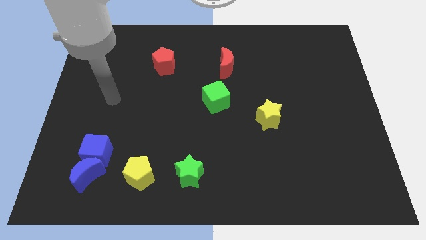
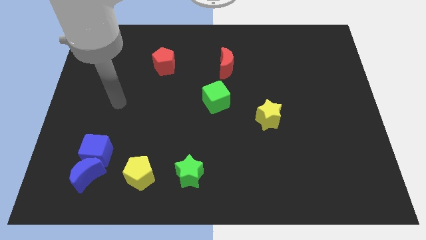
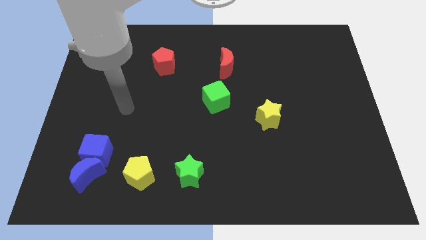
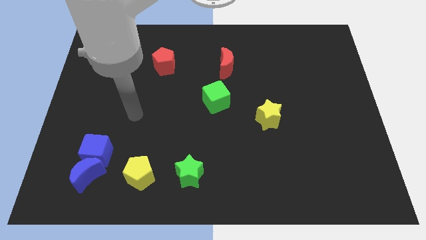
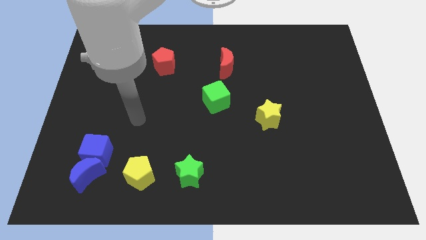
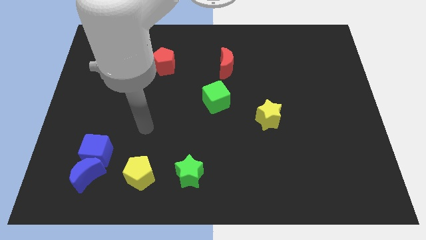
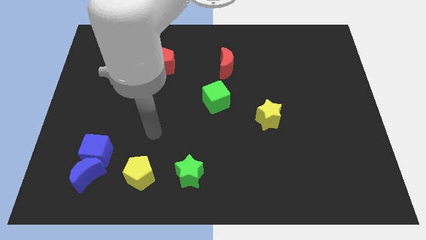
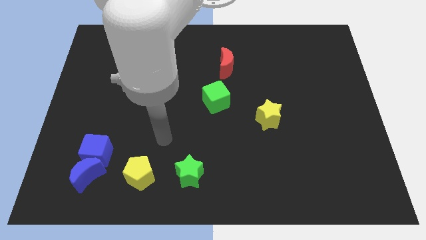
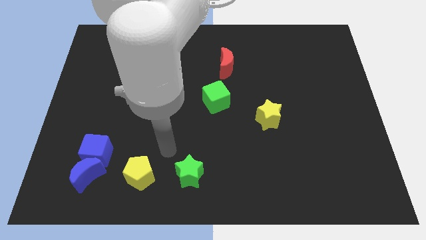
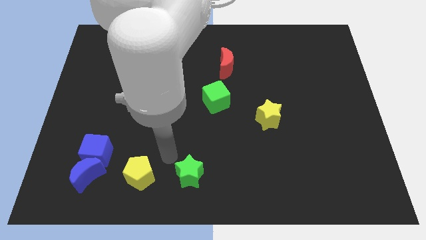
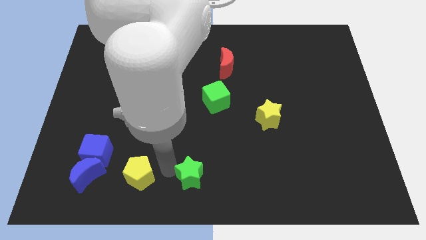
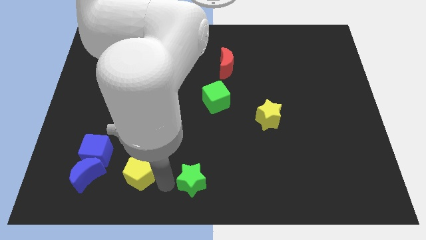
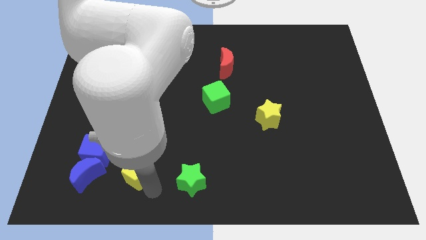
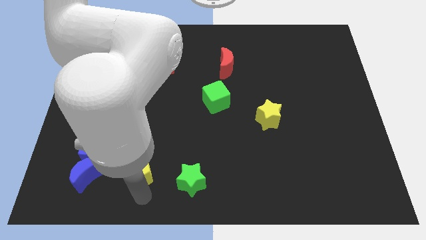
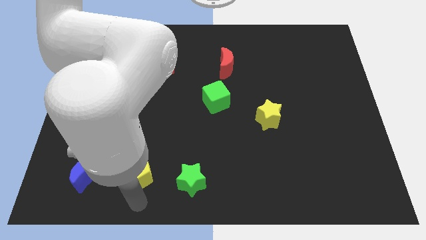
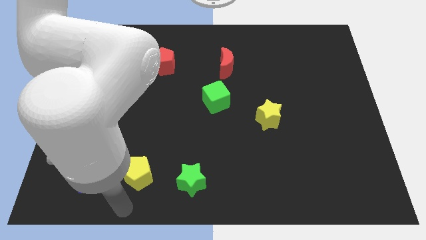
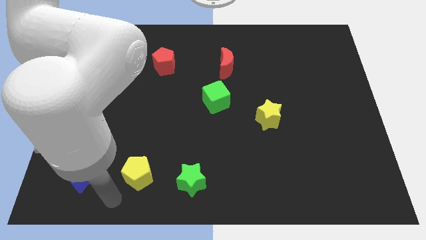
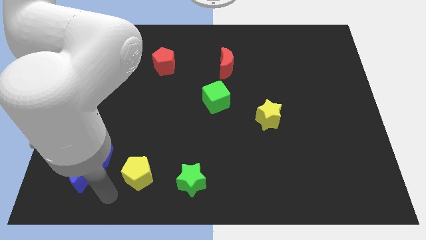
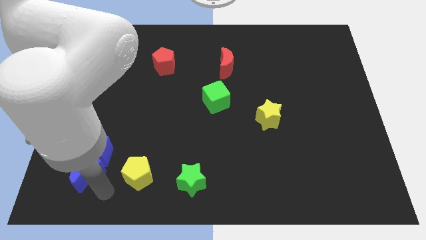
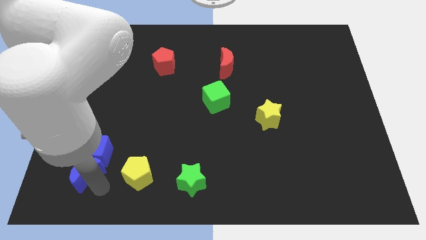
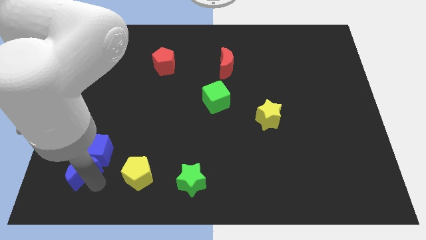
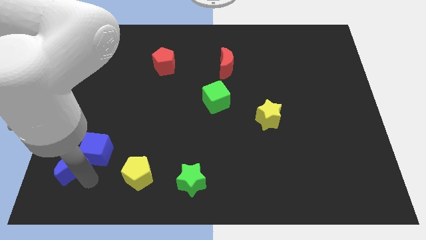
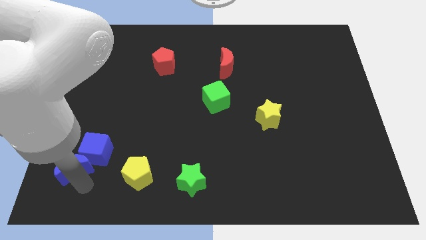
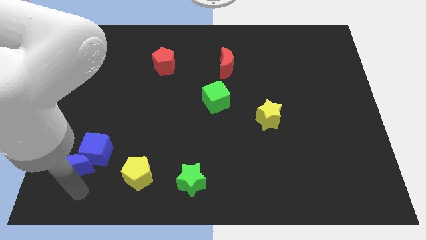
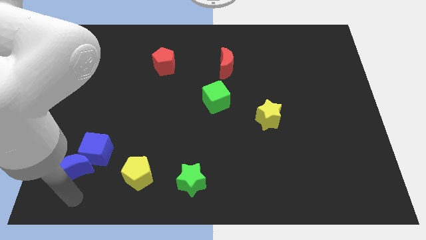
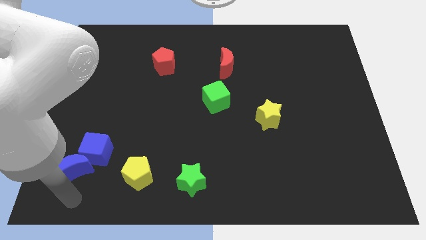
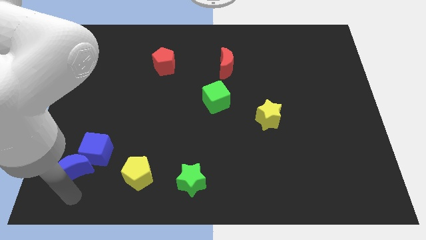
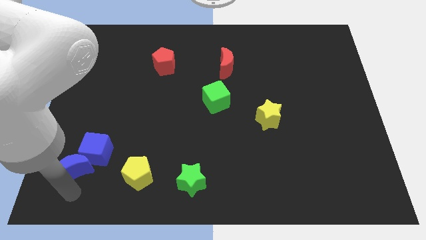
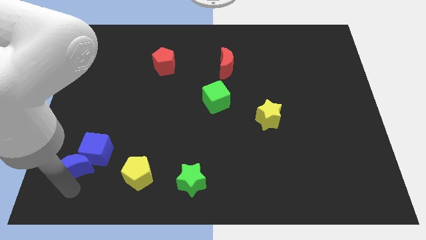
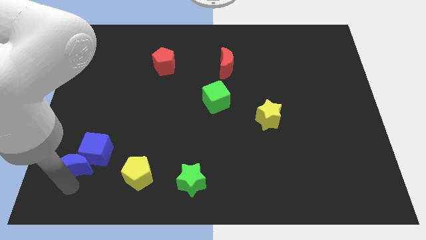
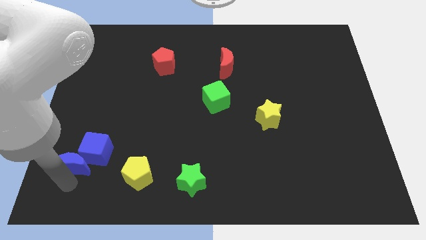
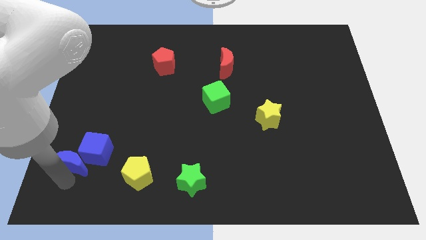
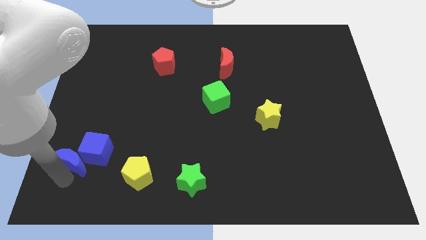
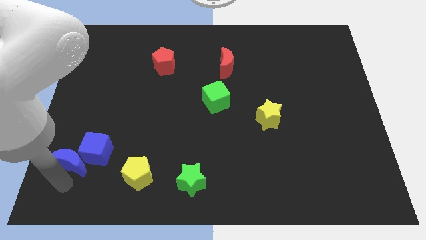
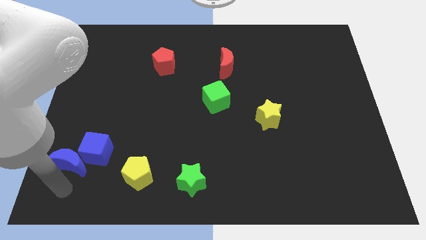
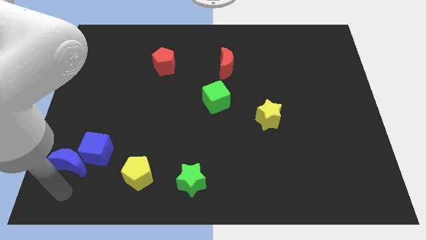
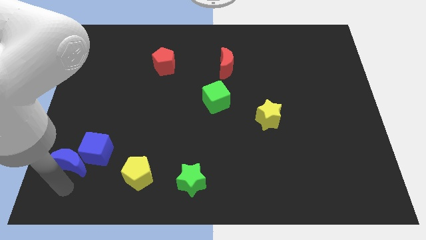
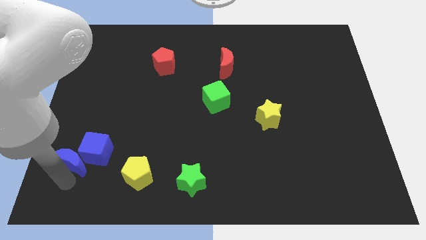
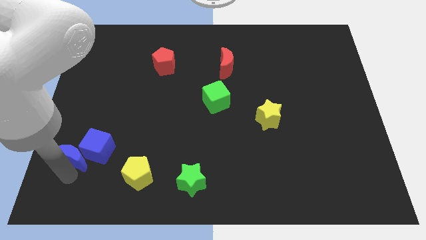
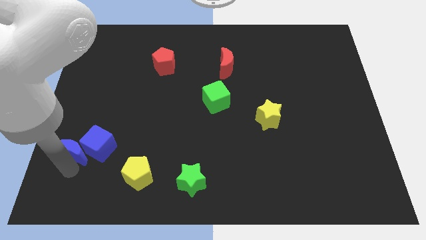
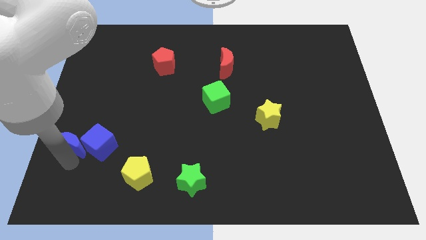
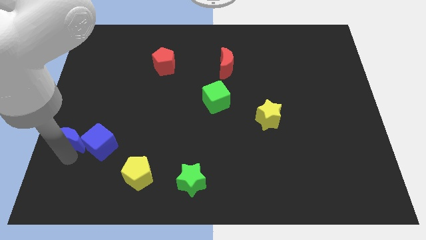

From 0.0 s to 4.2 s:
push the blue moon somewhat up

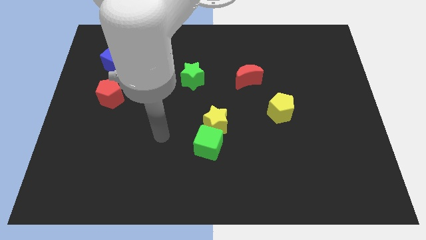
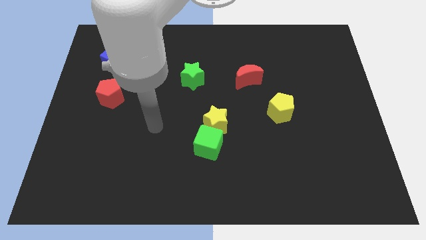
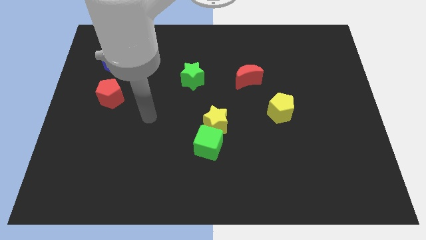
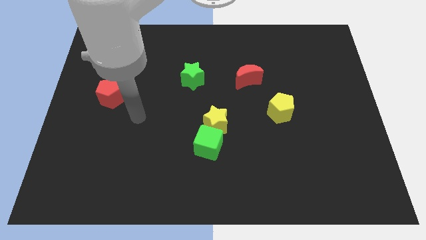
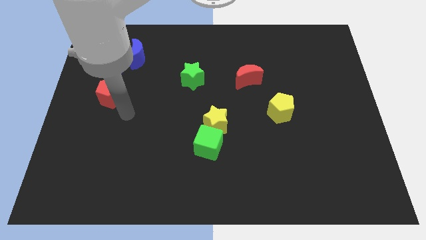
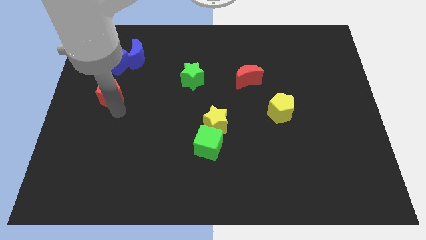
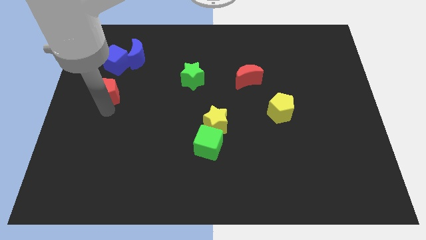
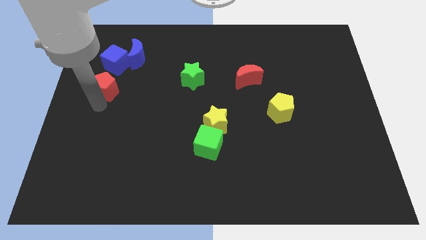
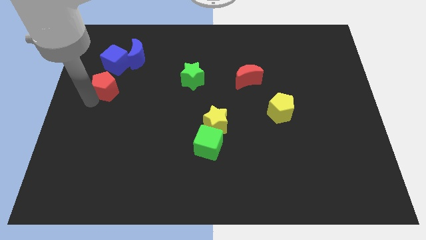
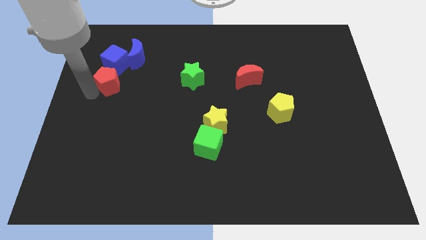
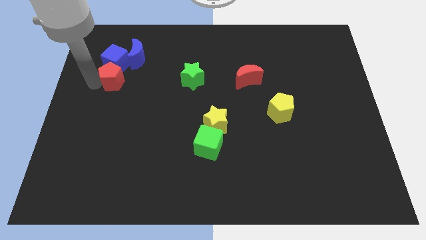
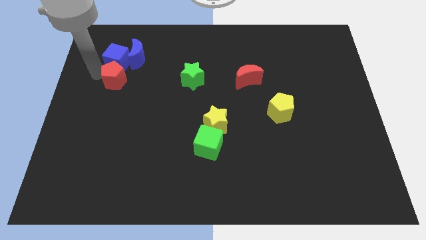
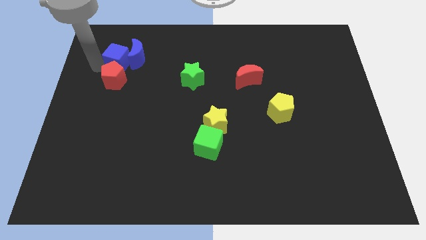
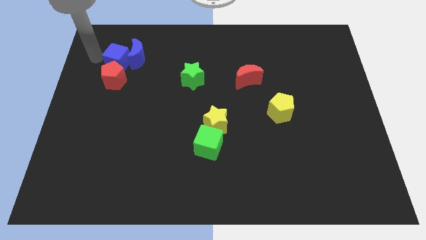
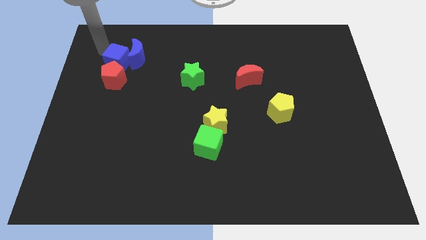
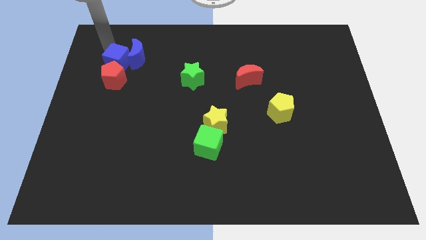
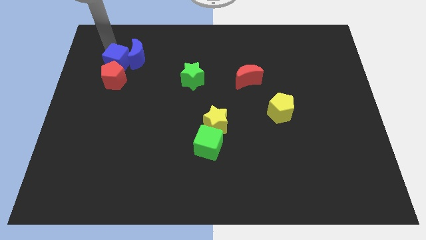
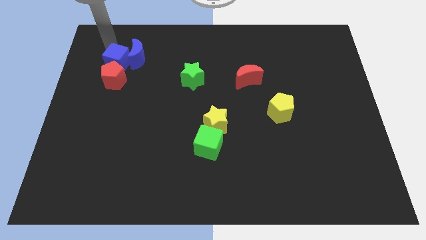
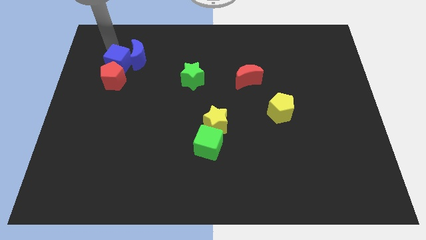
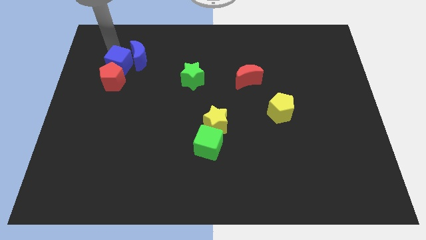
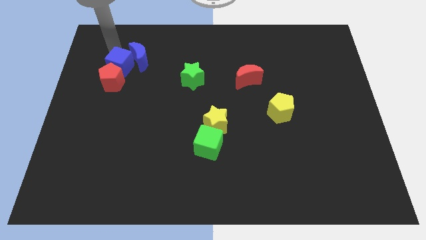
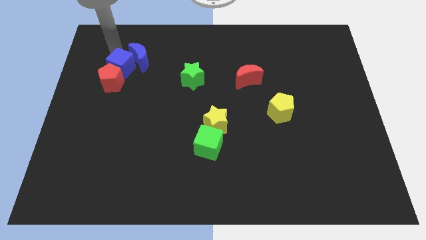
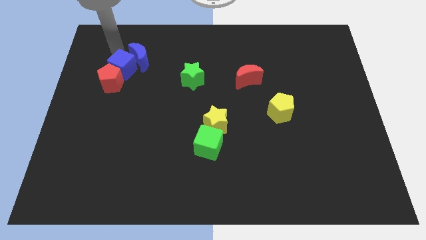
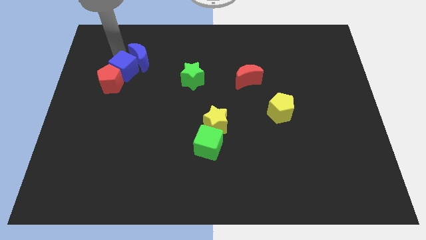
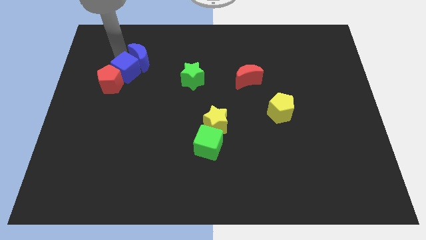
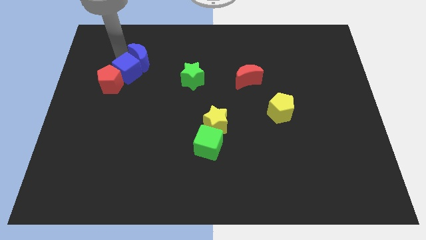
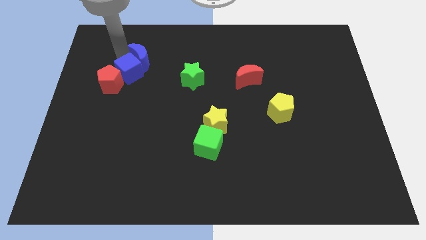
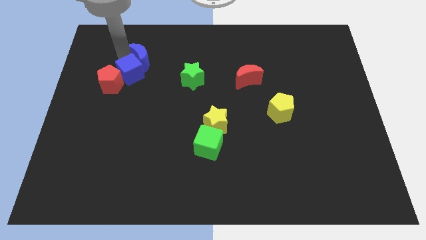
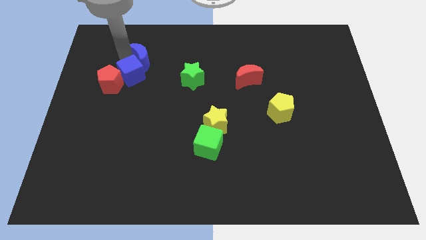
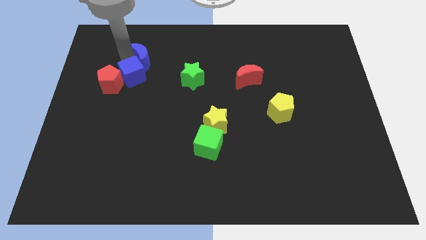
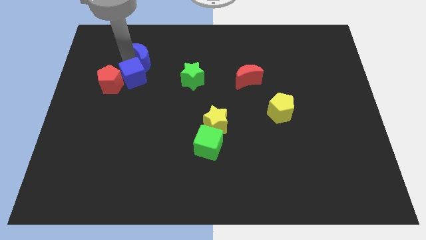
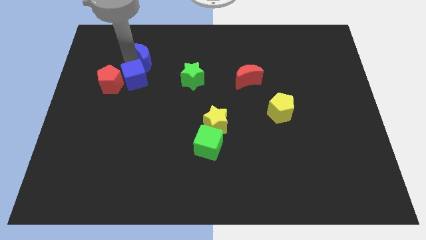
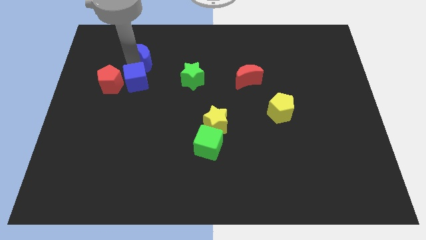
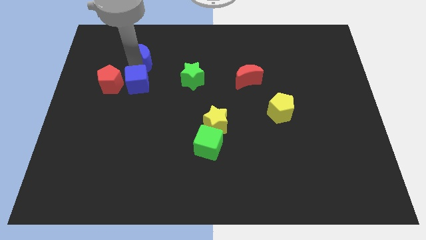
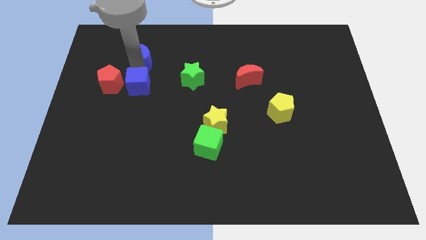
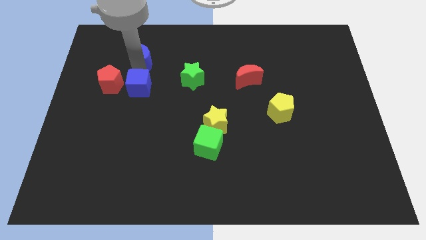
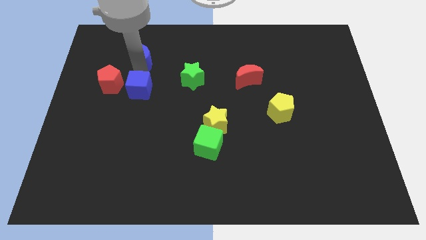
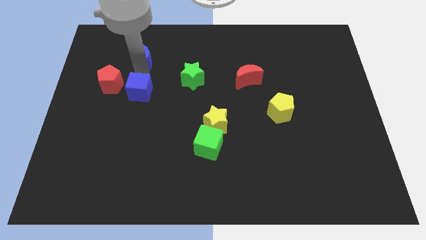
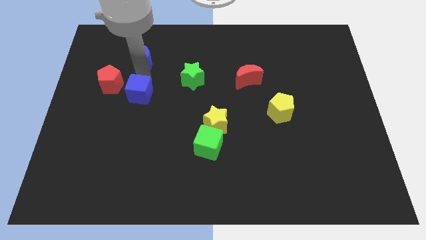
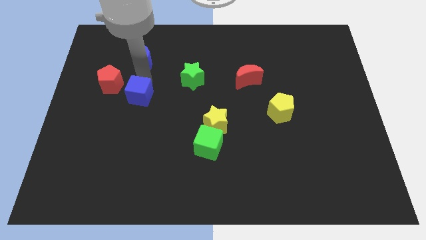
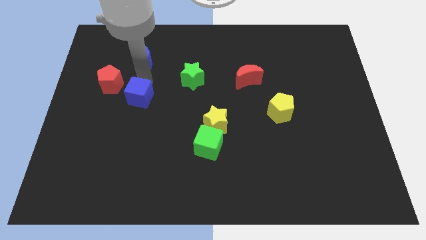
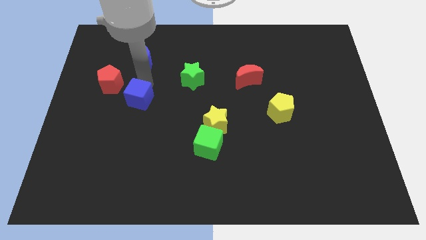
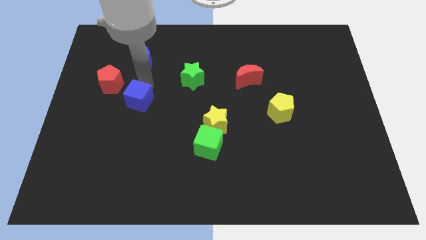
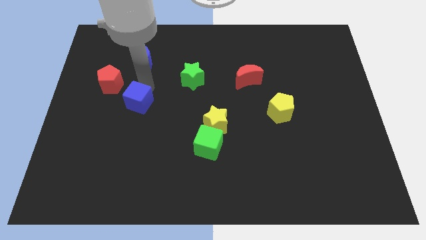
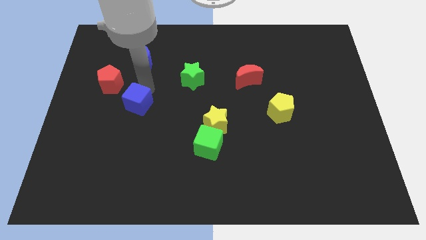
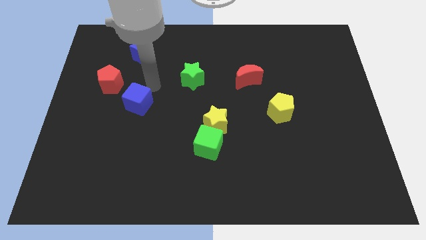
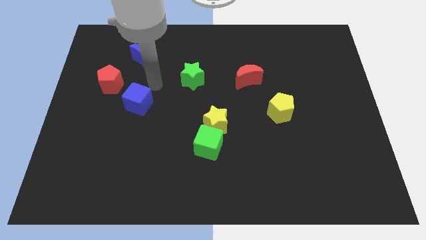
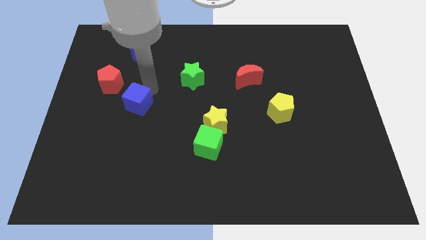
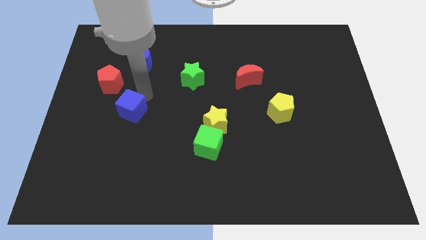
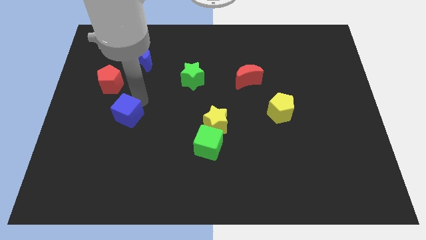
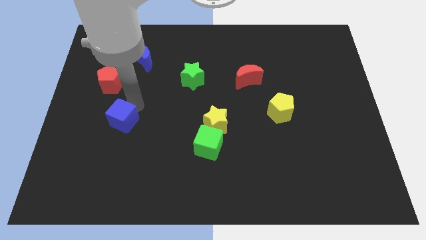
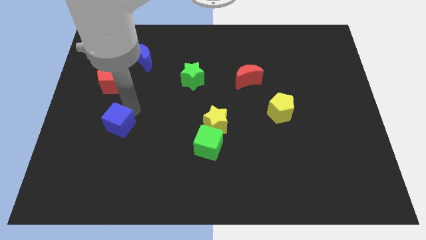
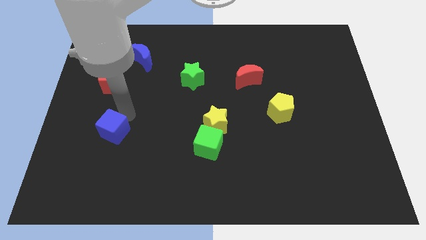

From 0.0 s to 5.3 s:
move the blue cube down
